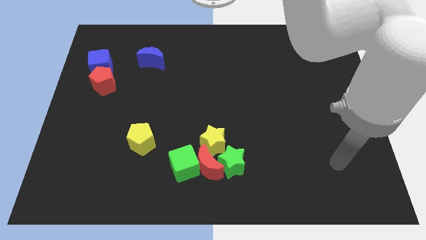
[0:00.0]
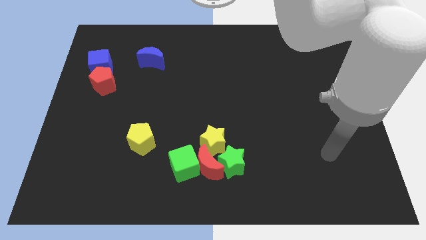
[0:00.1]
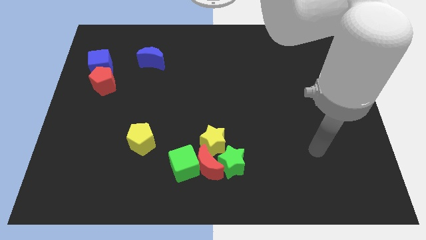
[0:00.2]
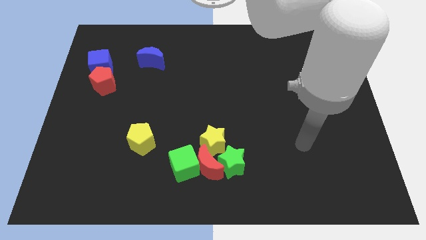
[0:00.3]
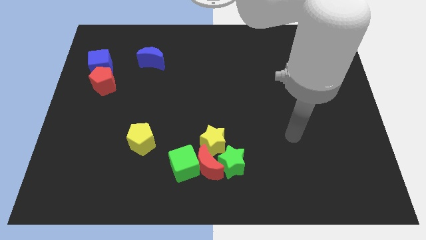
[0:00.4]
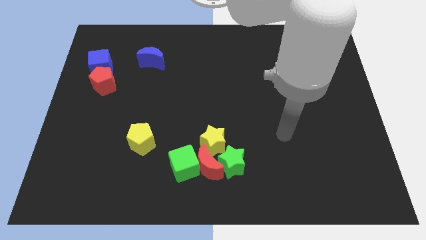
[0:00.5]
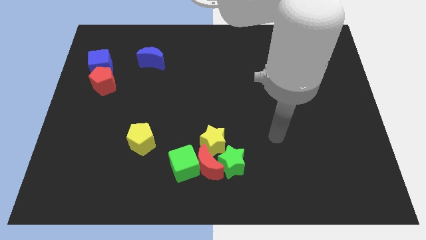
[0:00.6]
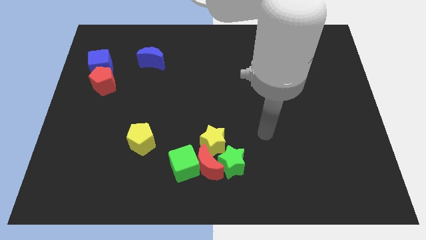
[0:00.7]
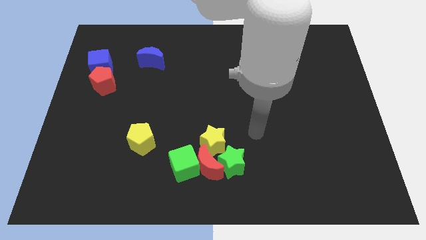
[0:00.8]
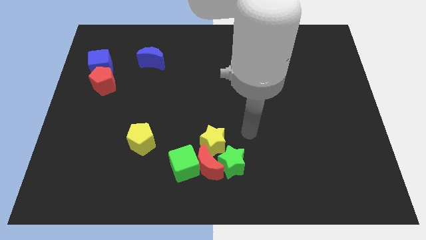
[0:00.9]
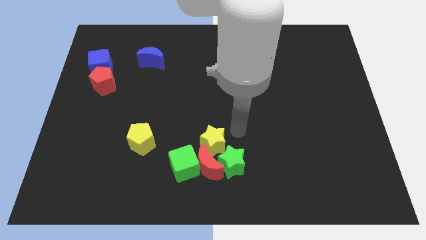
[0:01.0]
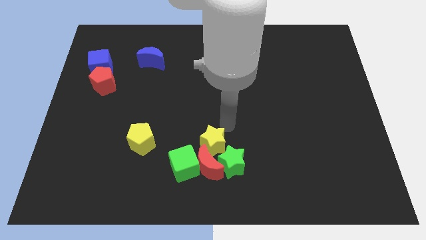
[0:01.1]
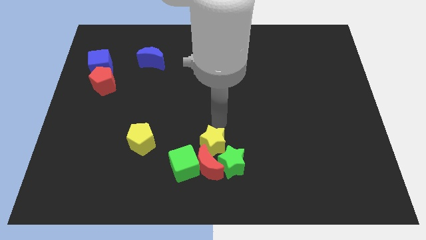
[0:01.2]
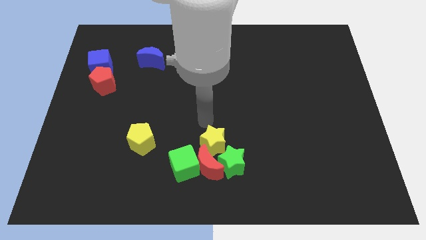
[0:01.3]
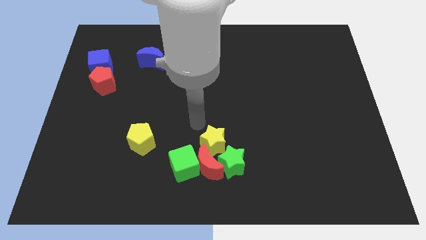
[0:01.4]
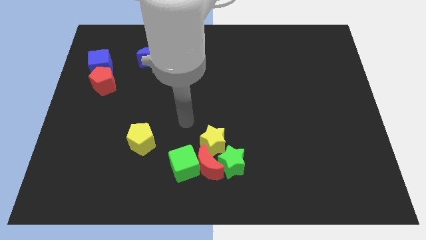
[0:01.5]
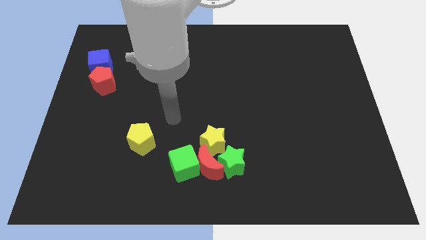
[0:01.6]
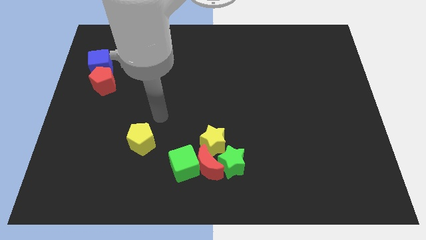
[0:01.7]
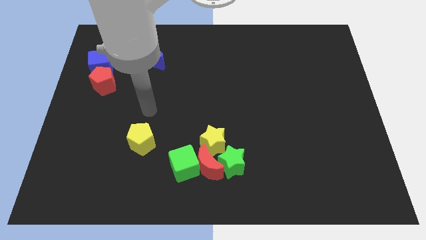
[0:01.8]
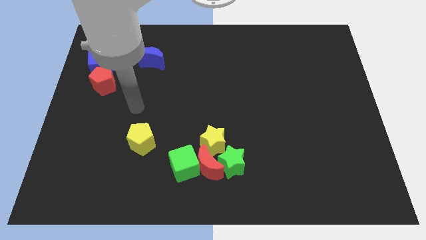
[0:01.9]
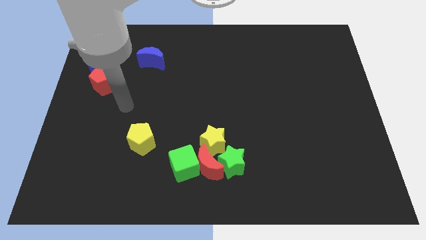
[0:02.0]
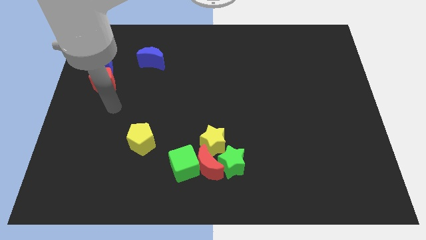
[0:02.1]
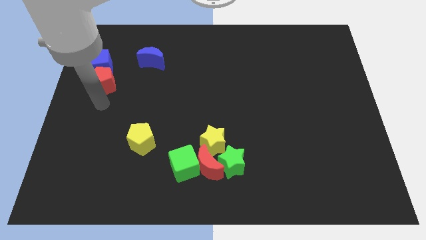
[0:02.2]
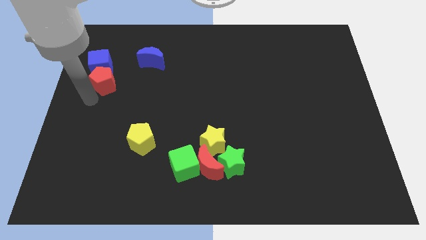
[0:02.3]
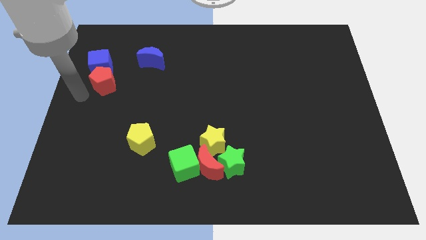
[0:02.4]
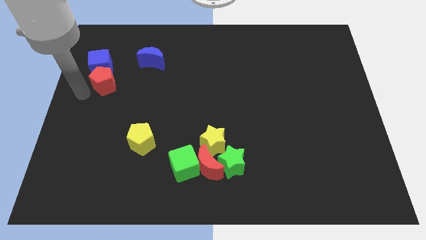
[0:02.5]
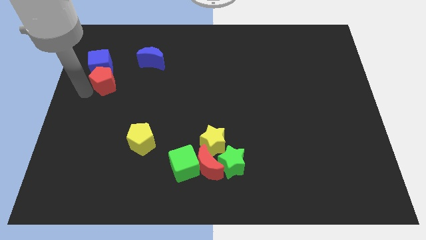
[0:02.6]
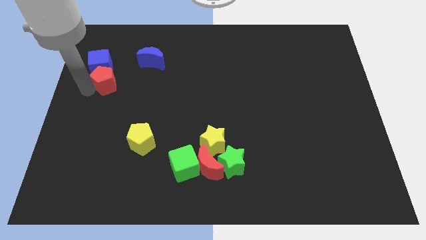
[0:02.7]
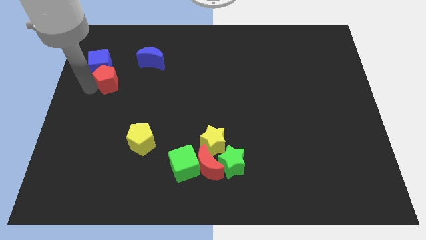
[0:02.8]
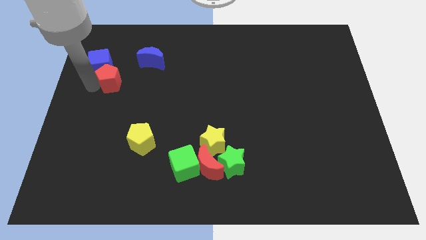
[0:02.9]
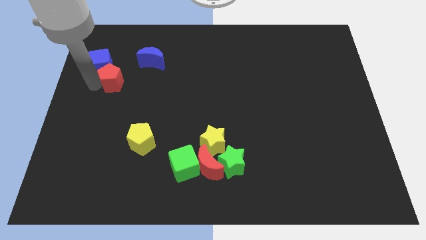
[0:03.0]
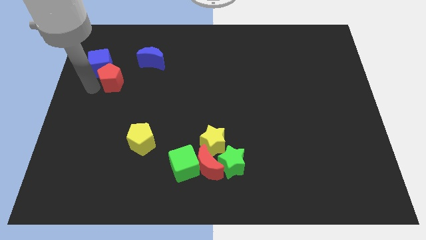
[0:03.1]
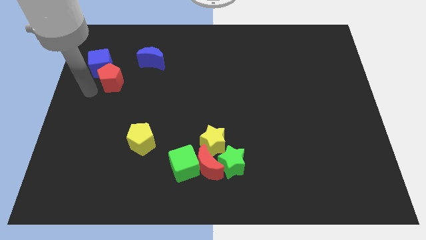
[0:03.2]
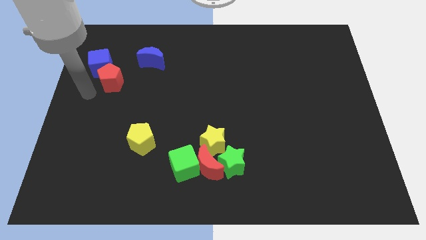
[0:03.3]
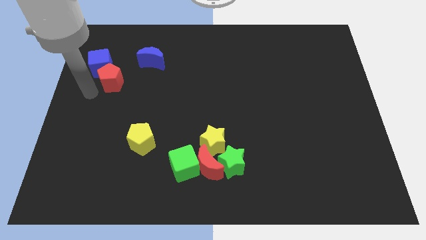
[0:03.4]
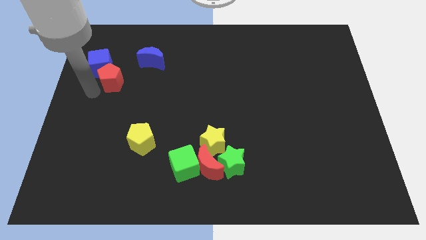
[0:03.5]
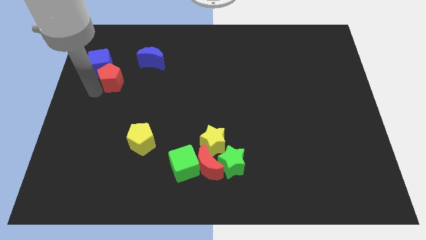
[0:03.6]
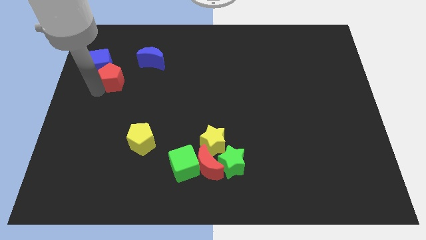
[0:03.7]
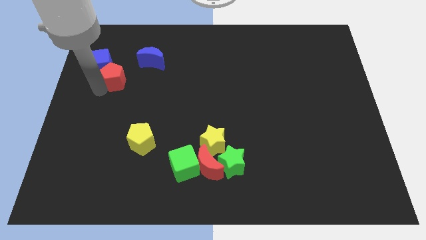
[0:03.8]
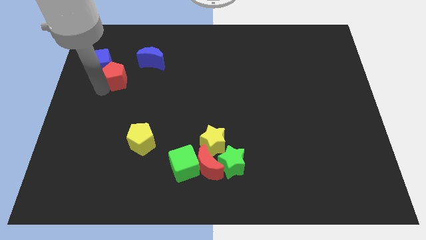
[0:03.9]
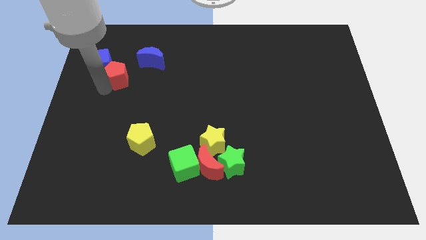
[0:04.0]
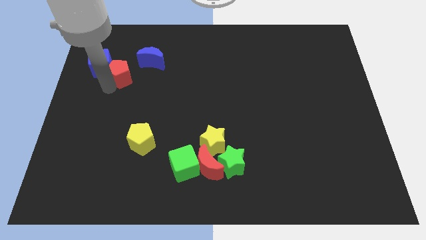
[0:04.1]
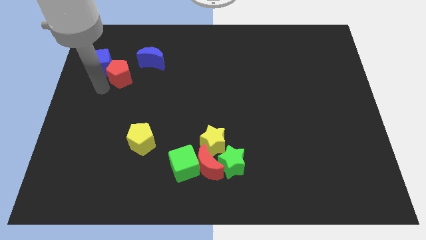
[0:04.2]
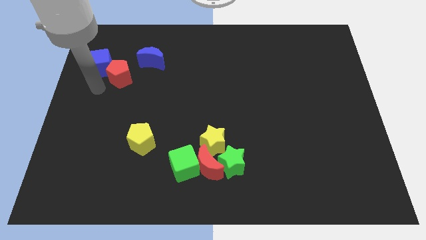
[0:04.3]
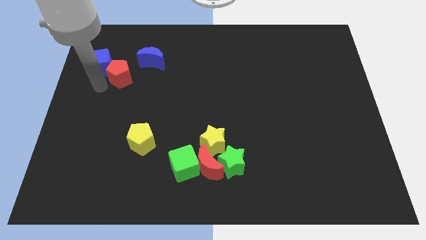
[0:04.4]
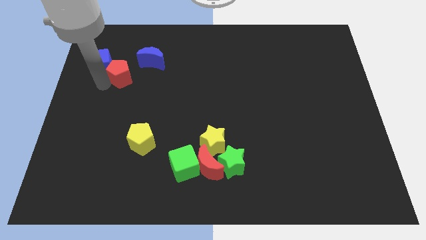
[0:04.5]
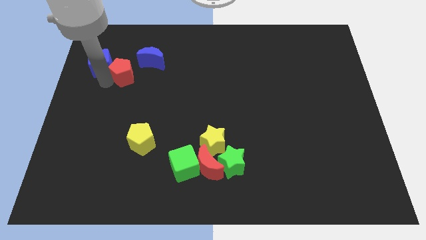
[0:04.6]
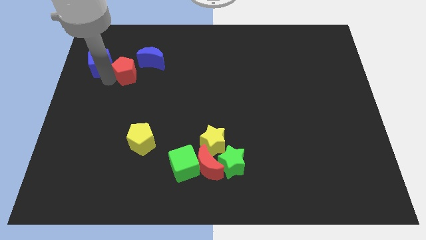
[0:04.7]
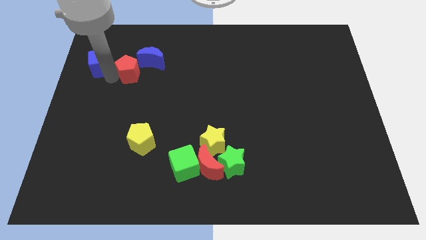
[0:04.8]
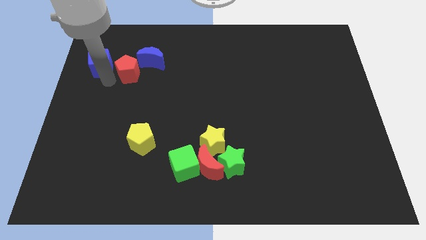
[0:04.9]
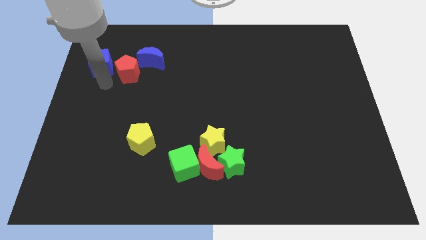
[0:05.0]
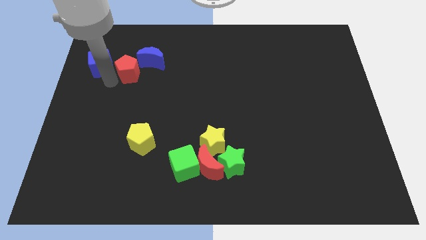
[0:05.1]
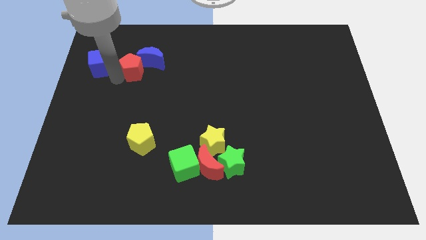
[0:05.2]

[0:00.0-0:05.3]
move the red pentagon towards the blue moon

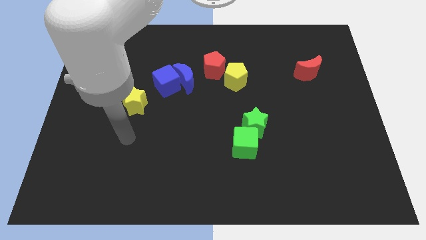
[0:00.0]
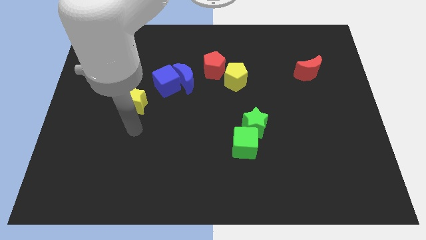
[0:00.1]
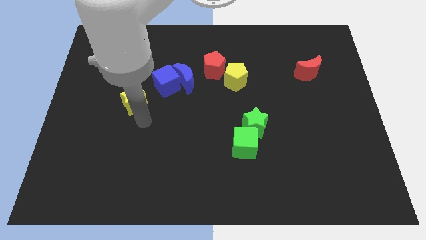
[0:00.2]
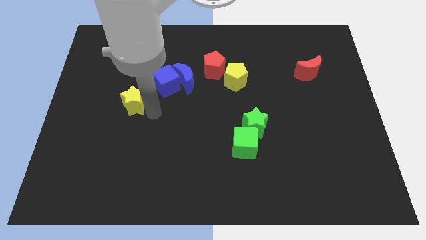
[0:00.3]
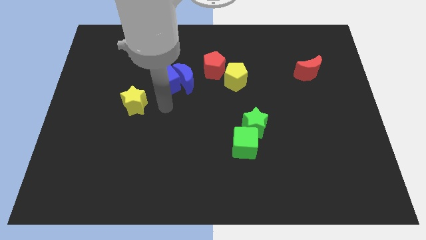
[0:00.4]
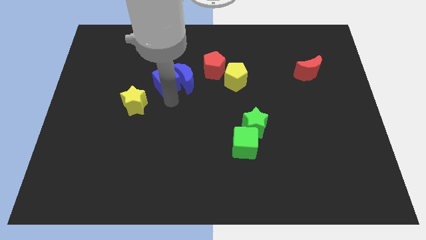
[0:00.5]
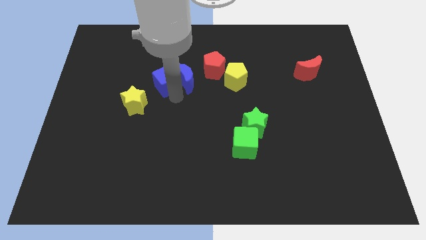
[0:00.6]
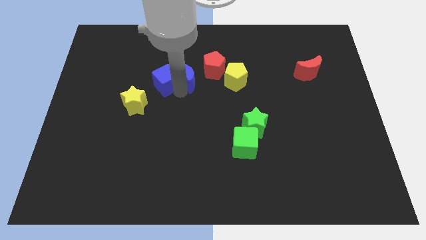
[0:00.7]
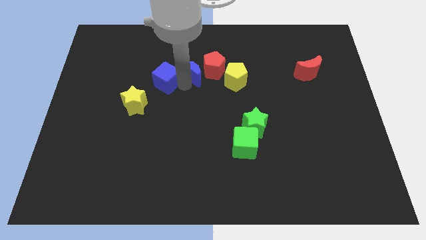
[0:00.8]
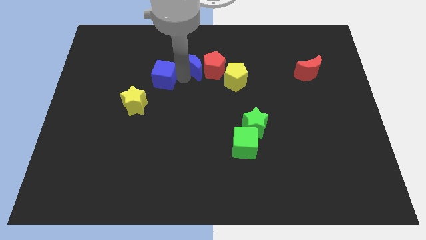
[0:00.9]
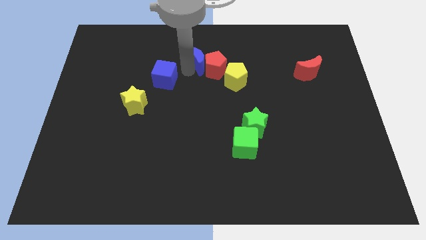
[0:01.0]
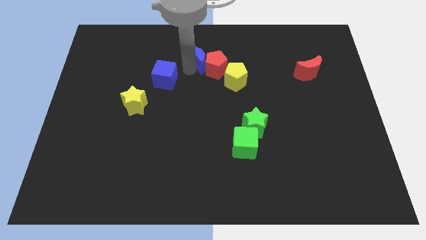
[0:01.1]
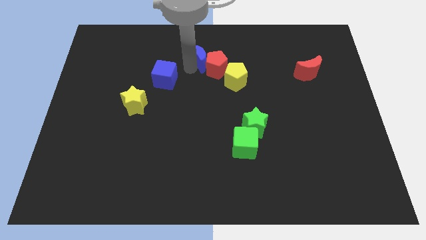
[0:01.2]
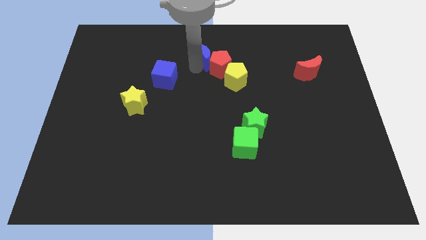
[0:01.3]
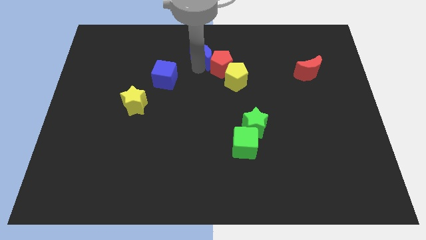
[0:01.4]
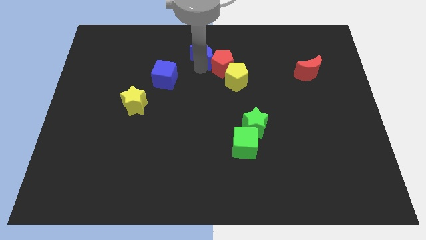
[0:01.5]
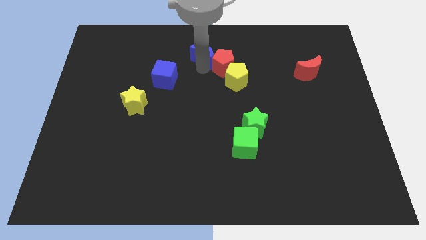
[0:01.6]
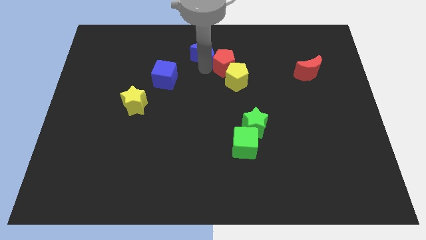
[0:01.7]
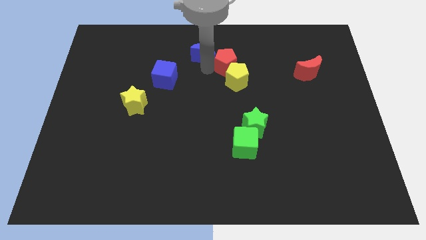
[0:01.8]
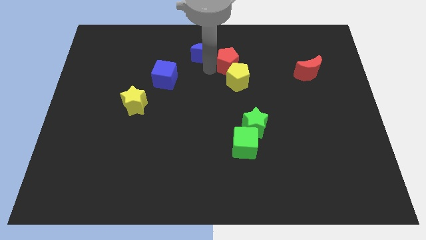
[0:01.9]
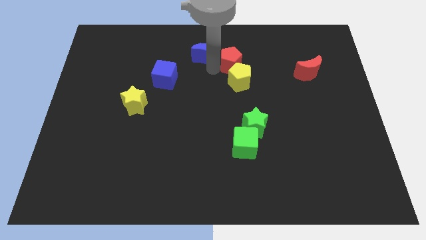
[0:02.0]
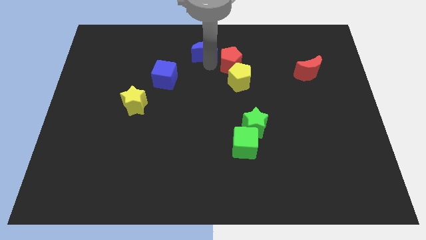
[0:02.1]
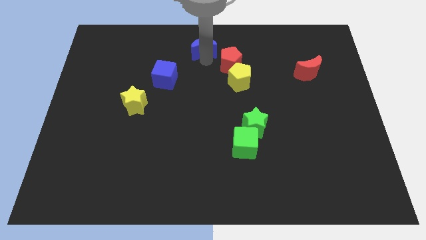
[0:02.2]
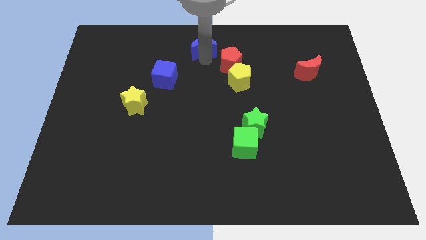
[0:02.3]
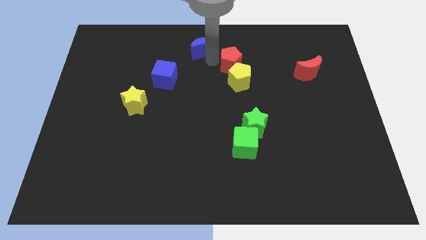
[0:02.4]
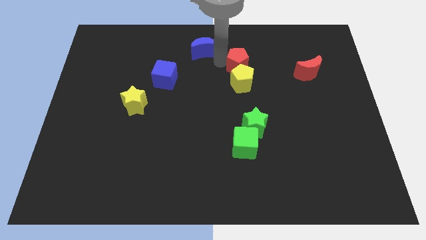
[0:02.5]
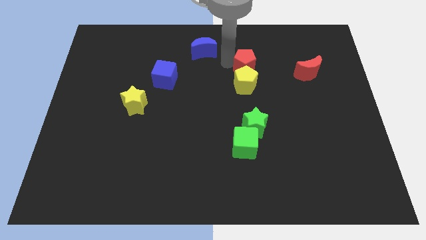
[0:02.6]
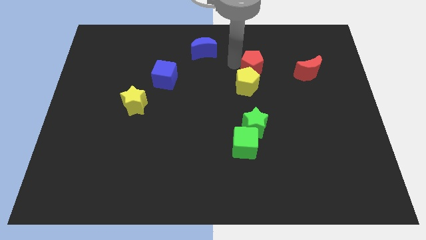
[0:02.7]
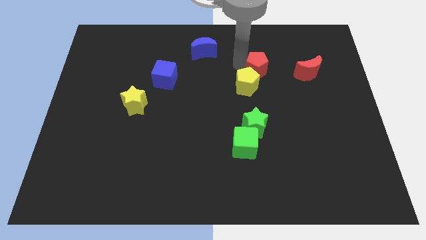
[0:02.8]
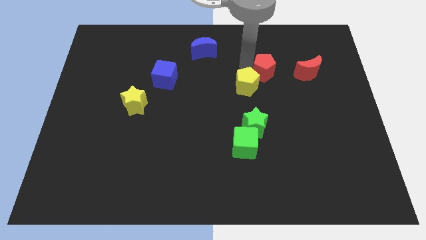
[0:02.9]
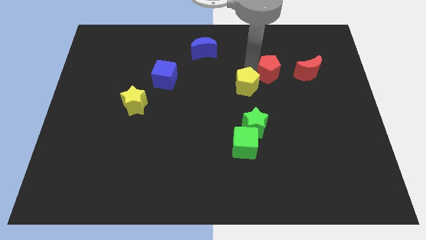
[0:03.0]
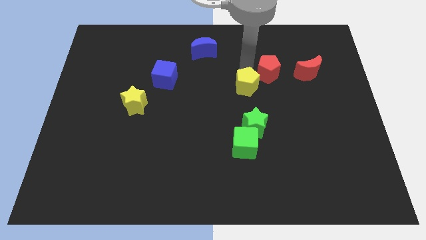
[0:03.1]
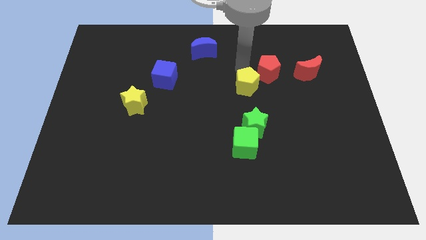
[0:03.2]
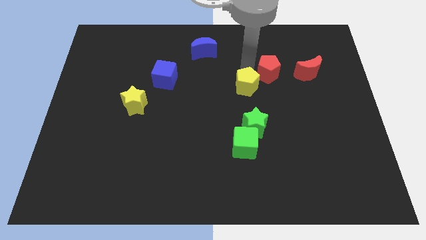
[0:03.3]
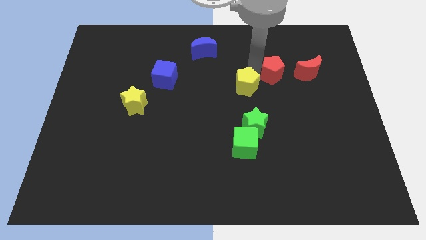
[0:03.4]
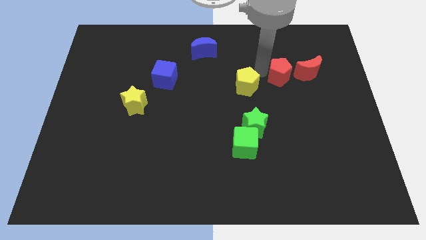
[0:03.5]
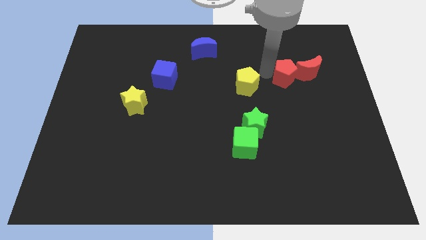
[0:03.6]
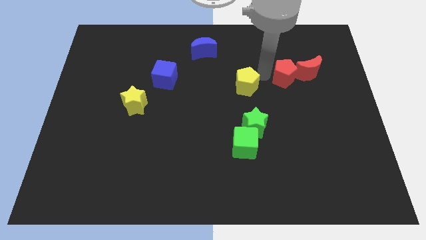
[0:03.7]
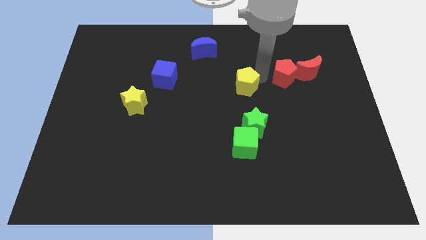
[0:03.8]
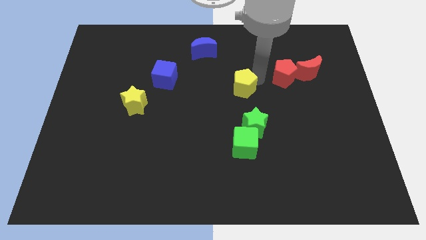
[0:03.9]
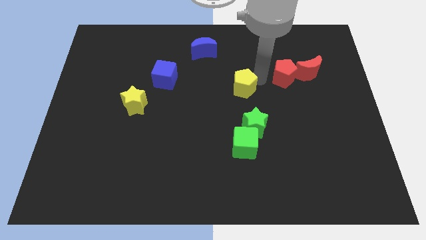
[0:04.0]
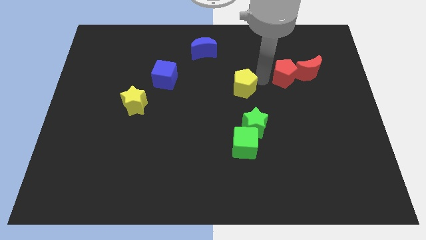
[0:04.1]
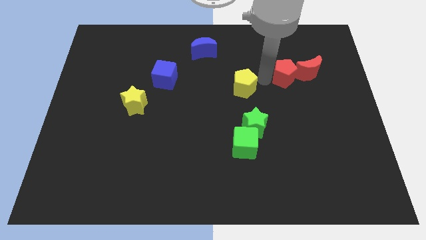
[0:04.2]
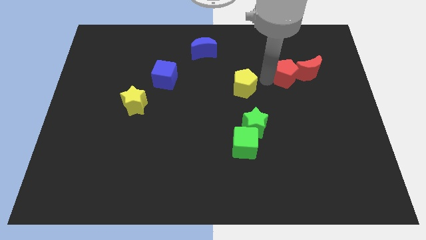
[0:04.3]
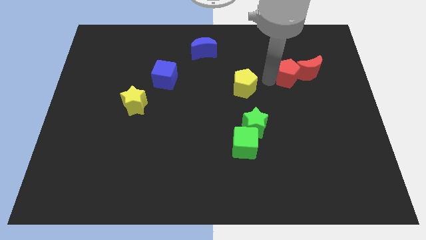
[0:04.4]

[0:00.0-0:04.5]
push the red pentagon close to the red moon
